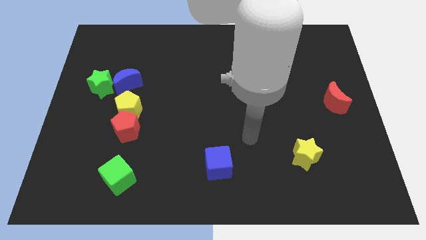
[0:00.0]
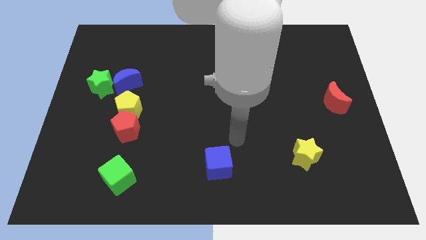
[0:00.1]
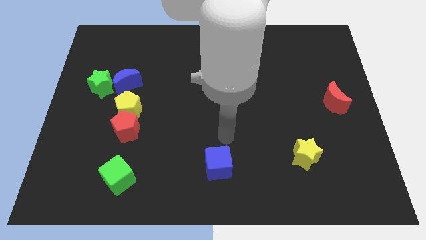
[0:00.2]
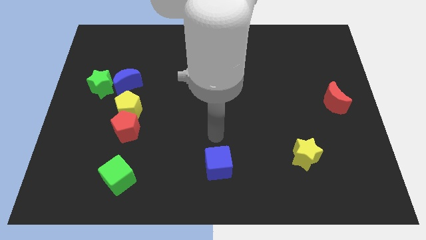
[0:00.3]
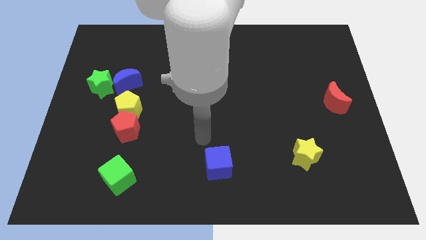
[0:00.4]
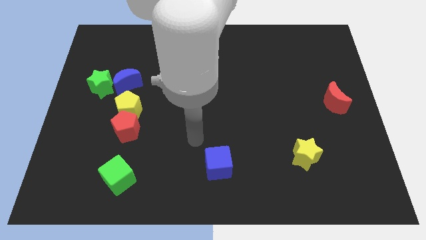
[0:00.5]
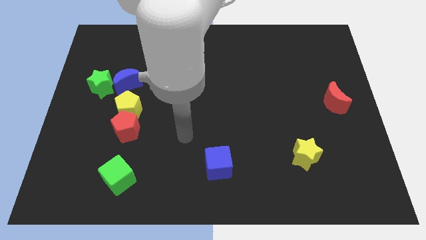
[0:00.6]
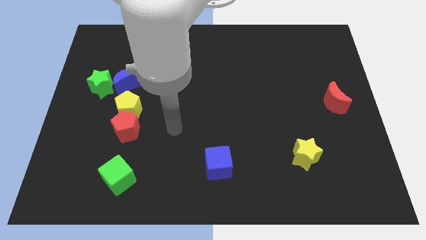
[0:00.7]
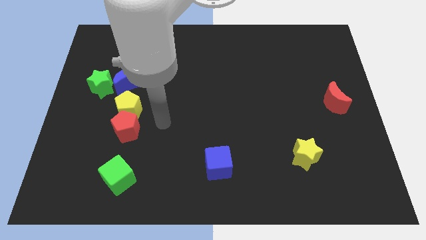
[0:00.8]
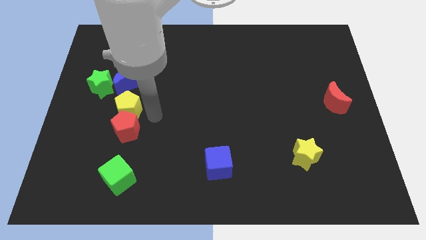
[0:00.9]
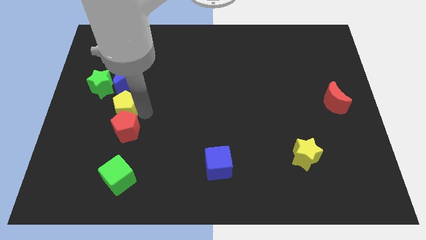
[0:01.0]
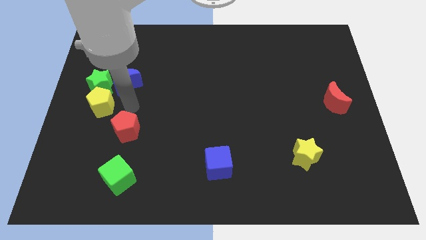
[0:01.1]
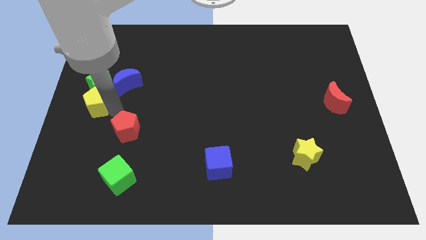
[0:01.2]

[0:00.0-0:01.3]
separate the red pentagon from the yellow pentagon

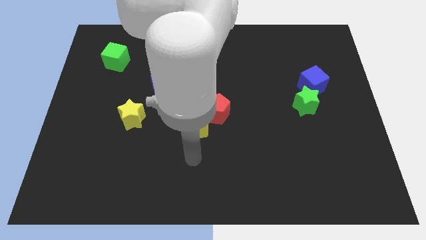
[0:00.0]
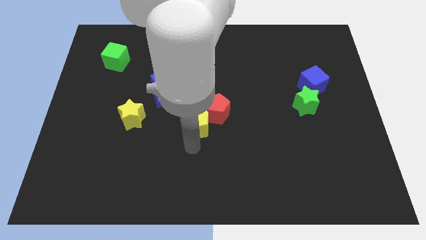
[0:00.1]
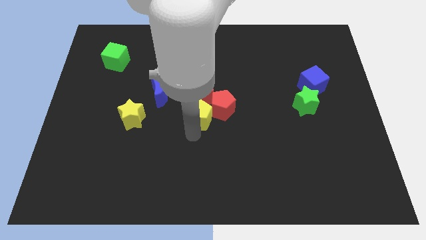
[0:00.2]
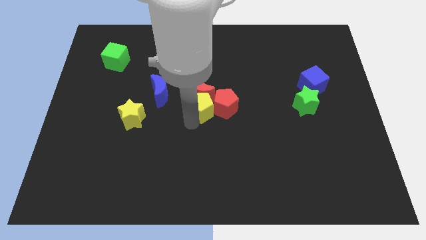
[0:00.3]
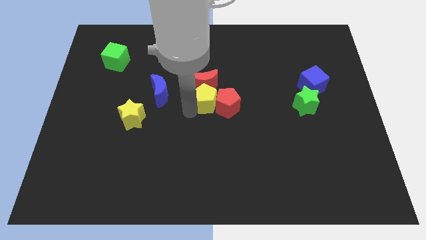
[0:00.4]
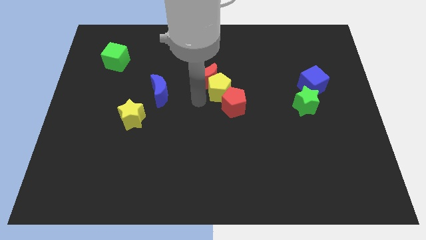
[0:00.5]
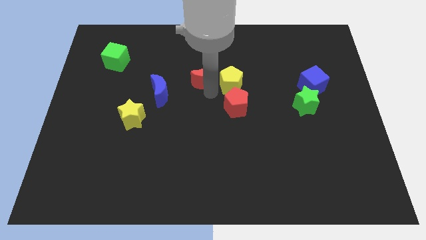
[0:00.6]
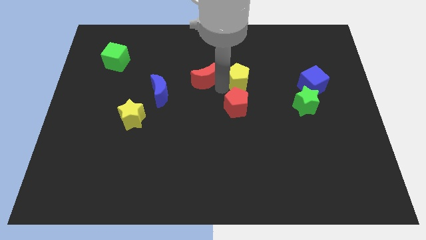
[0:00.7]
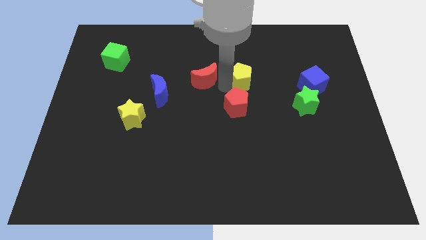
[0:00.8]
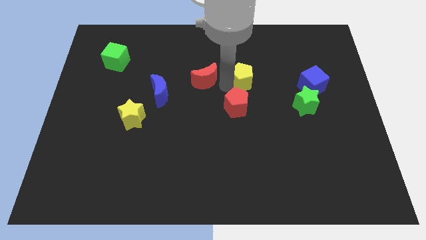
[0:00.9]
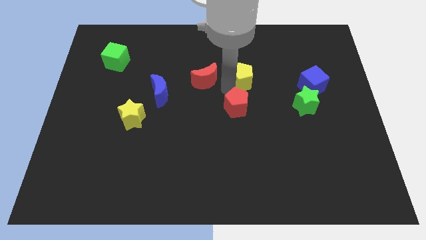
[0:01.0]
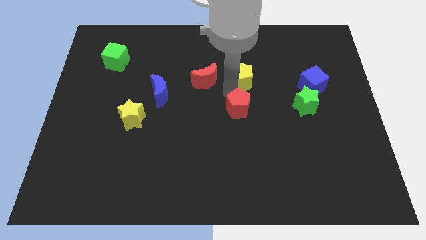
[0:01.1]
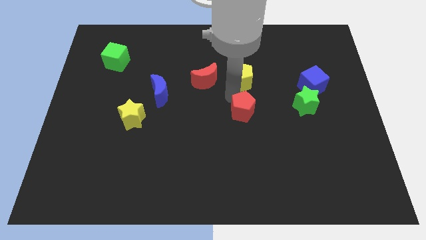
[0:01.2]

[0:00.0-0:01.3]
move the red pentagon away from the yellow pentagon and red moon

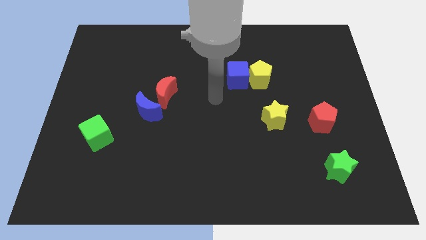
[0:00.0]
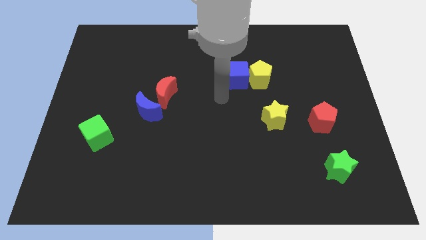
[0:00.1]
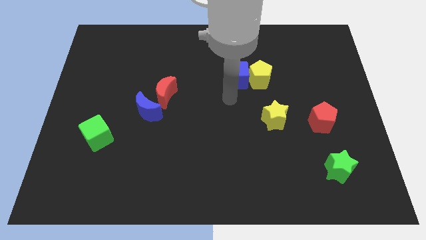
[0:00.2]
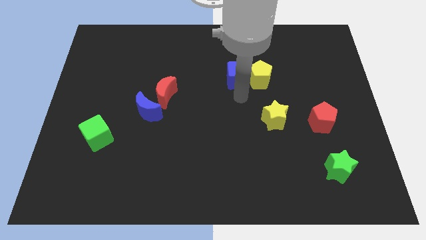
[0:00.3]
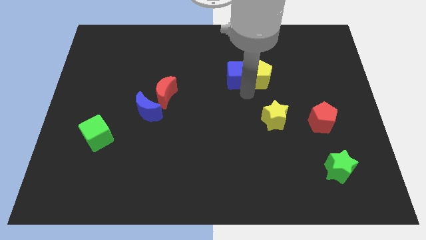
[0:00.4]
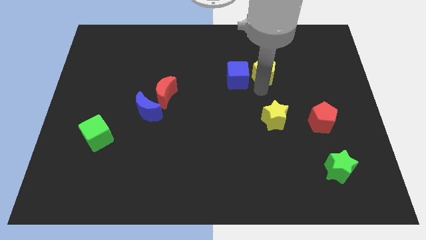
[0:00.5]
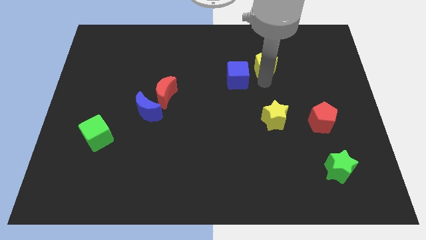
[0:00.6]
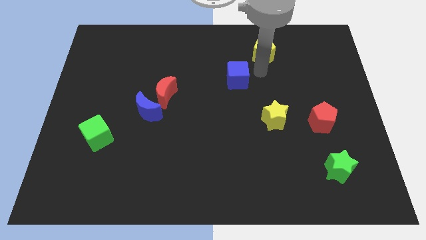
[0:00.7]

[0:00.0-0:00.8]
pull the blue cube apart from the yellow pentagon

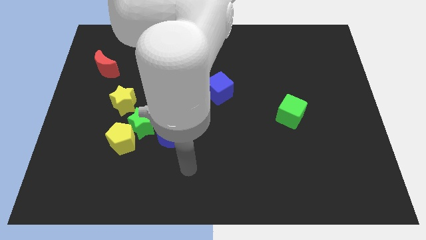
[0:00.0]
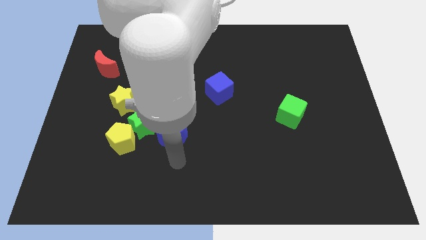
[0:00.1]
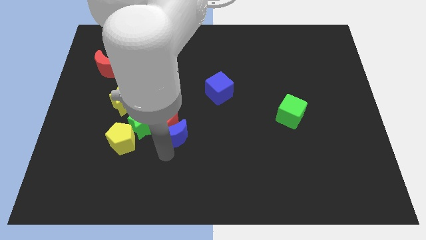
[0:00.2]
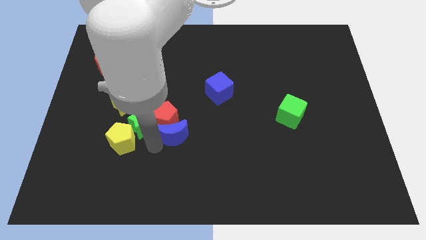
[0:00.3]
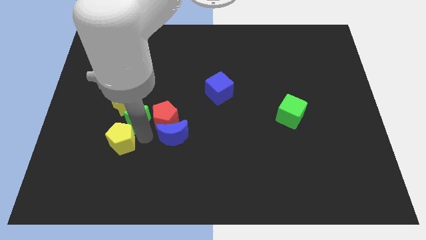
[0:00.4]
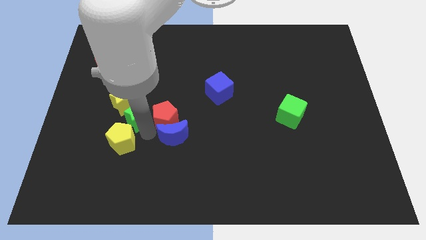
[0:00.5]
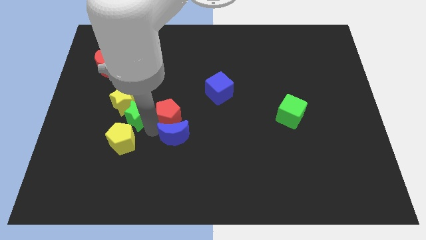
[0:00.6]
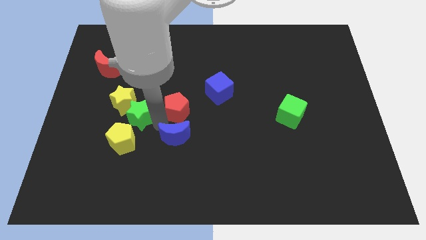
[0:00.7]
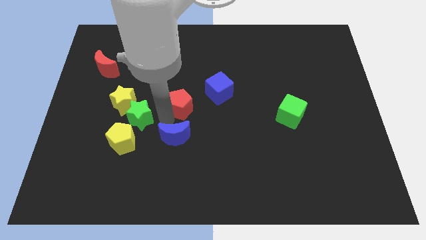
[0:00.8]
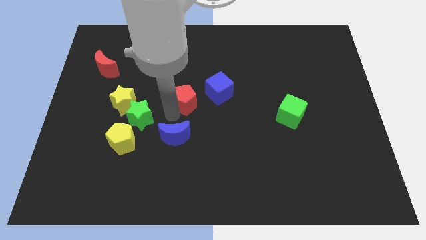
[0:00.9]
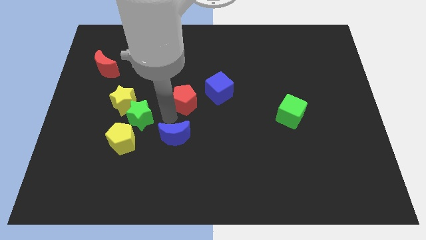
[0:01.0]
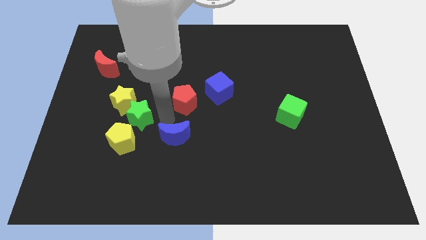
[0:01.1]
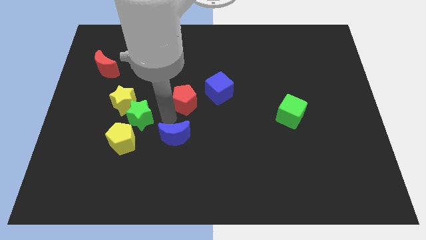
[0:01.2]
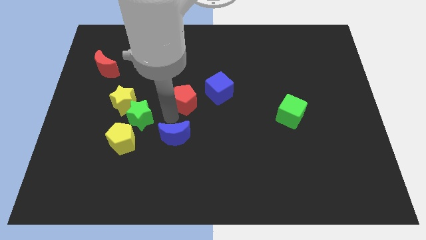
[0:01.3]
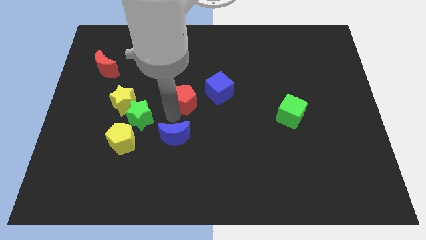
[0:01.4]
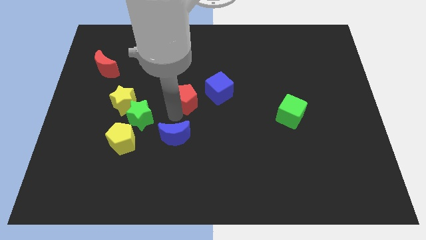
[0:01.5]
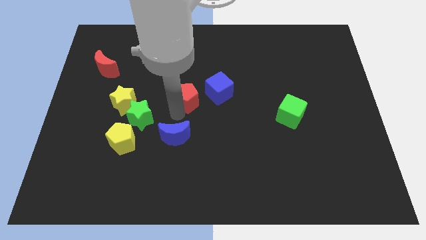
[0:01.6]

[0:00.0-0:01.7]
separate the red pentagon from the blue moon and green star

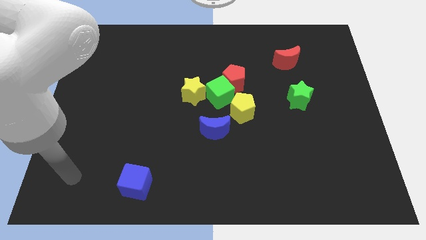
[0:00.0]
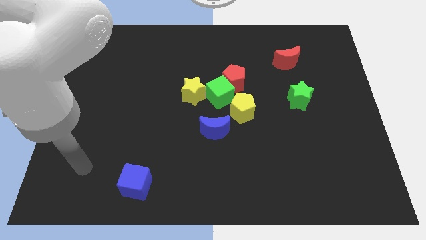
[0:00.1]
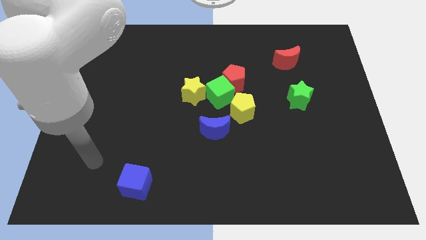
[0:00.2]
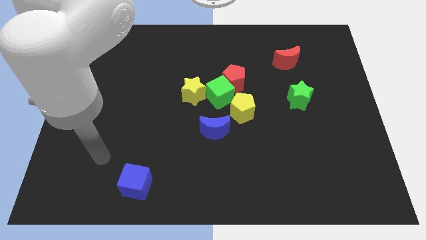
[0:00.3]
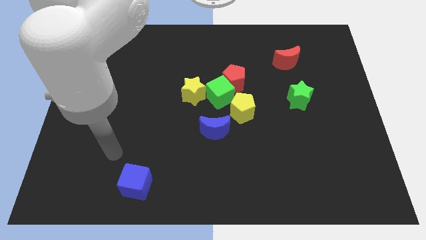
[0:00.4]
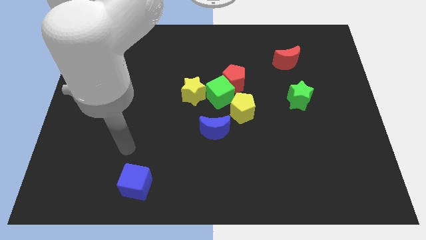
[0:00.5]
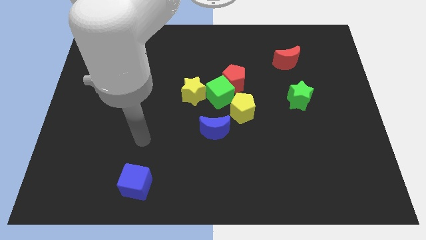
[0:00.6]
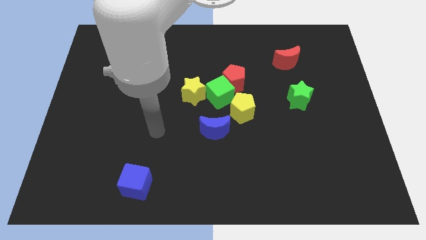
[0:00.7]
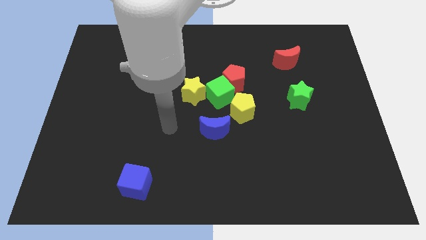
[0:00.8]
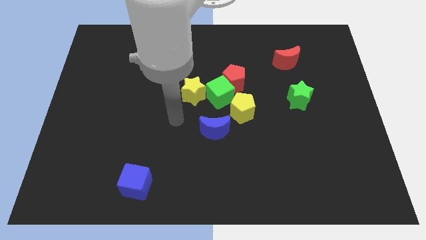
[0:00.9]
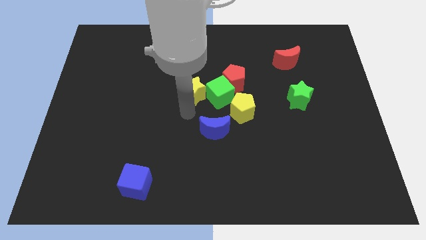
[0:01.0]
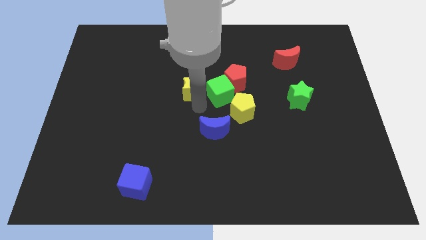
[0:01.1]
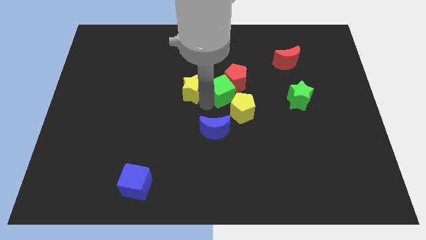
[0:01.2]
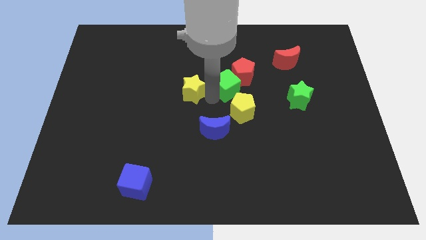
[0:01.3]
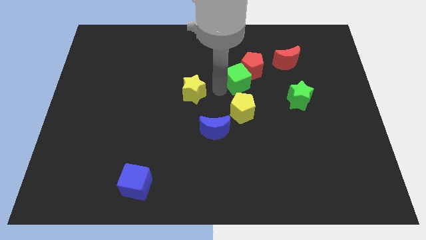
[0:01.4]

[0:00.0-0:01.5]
separate the yellow star from the green cube

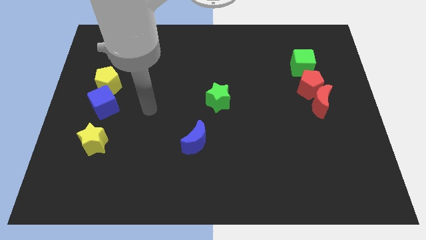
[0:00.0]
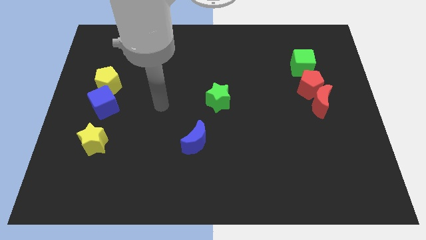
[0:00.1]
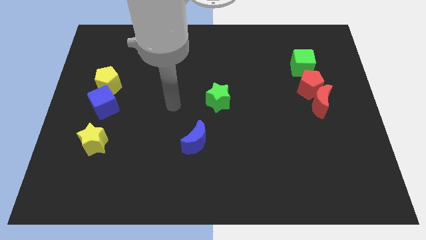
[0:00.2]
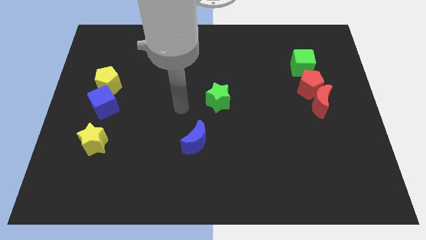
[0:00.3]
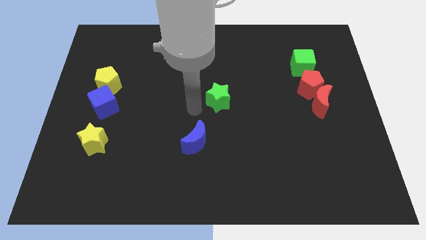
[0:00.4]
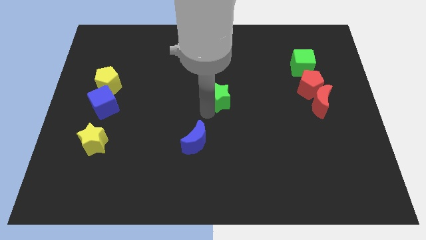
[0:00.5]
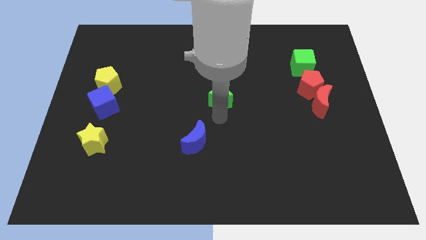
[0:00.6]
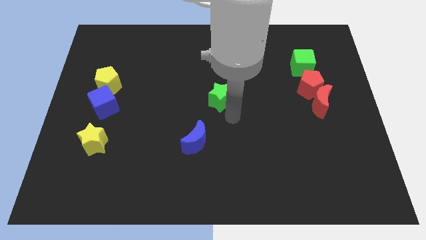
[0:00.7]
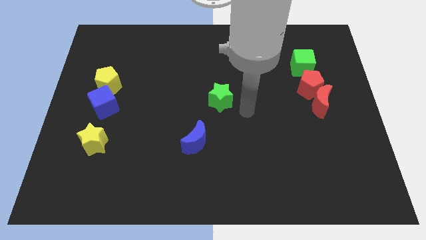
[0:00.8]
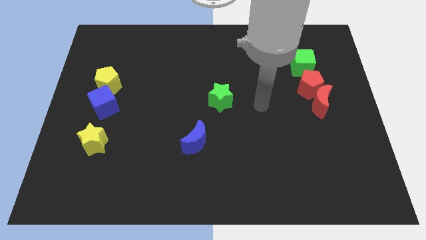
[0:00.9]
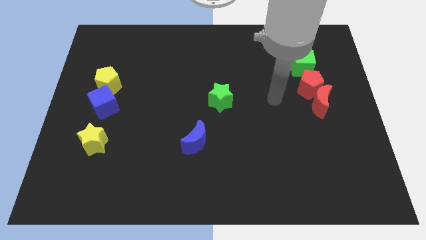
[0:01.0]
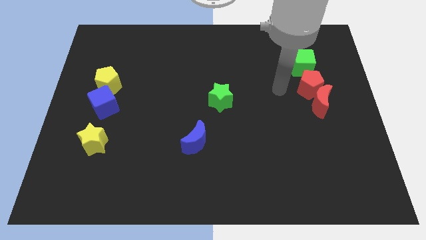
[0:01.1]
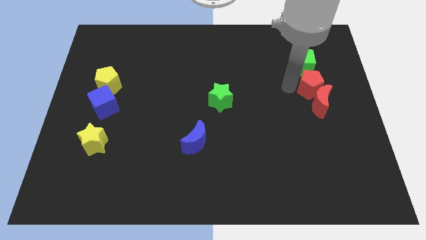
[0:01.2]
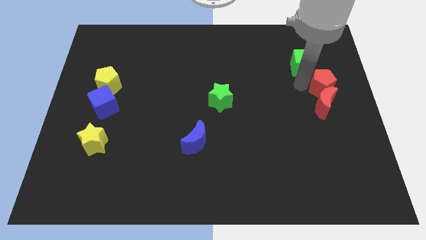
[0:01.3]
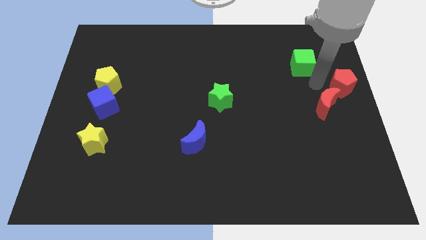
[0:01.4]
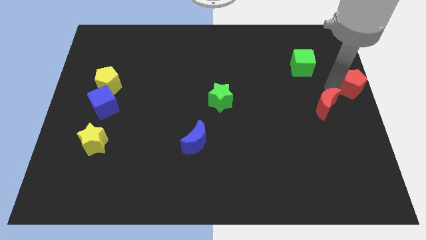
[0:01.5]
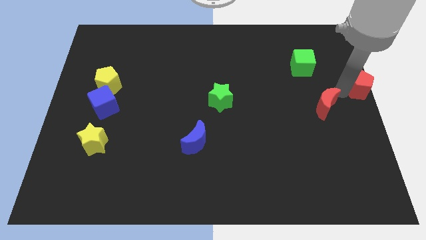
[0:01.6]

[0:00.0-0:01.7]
pull the red moon apart from the red pentagon

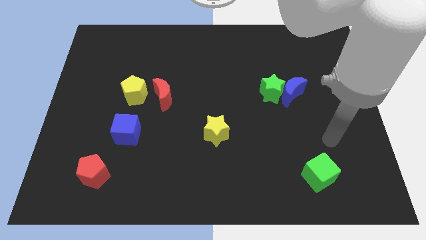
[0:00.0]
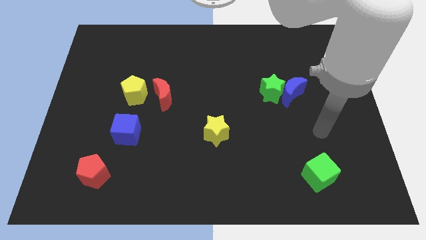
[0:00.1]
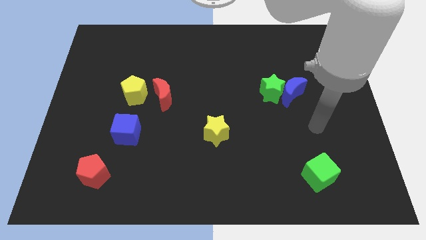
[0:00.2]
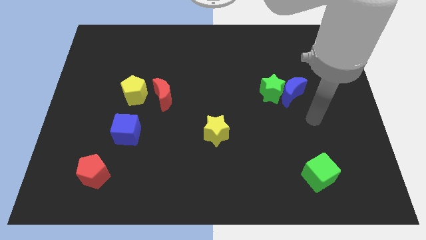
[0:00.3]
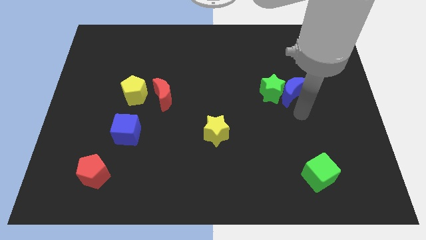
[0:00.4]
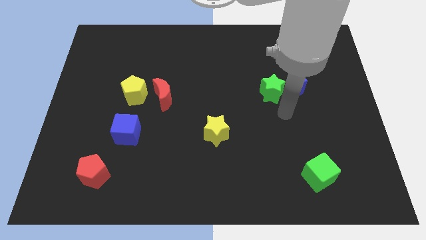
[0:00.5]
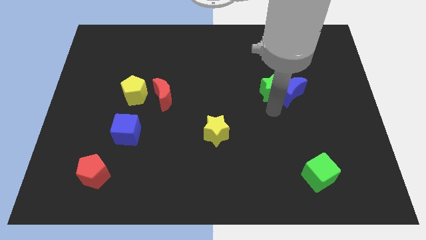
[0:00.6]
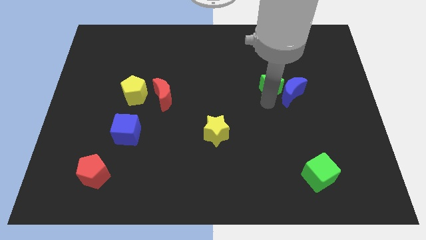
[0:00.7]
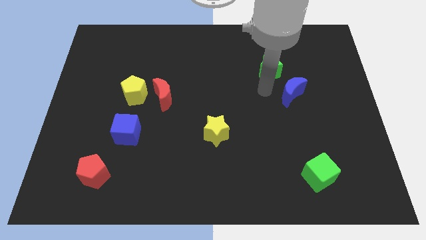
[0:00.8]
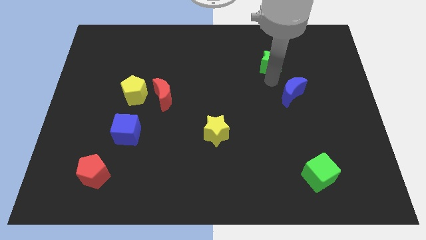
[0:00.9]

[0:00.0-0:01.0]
move the blue moon away from the green star
